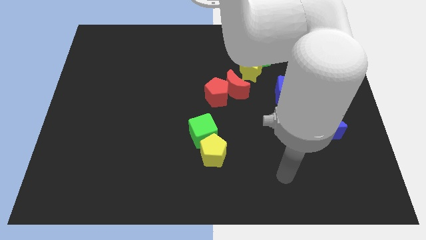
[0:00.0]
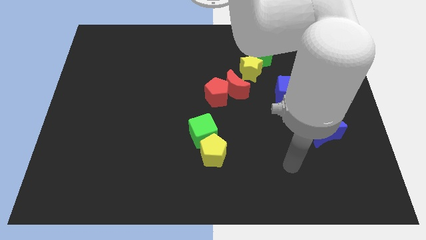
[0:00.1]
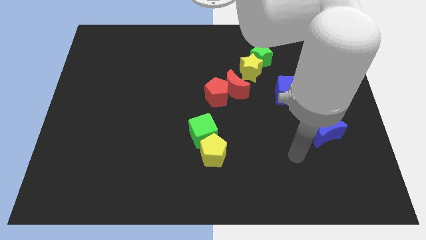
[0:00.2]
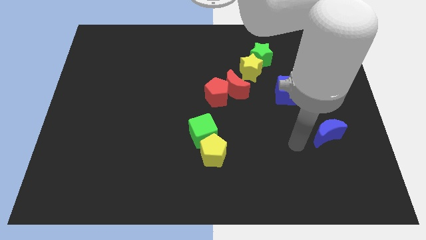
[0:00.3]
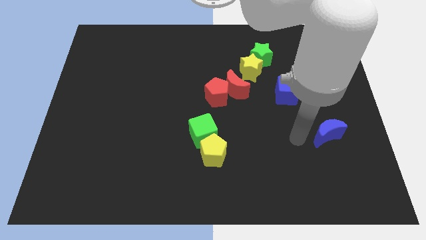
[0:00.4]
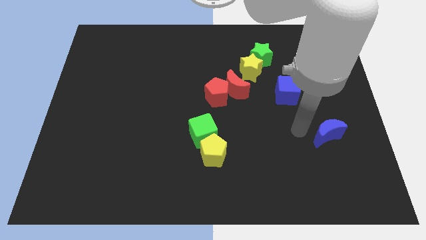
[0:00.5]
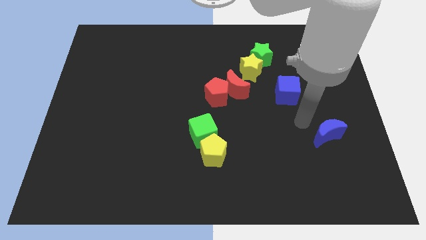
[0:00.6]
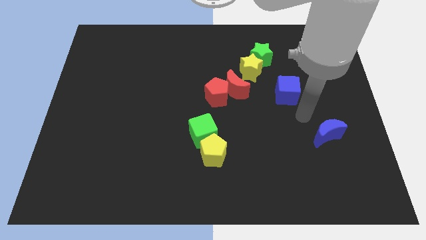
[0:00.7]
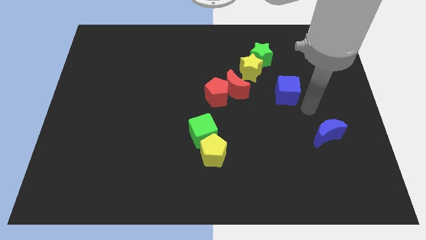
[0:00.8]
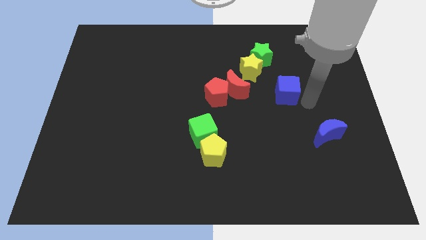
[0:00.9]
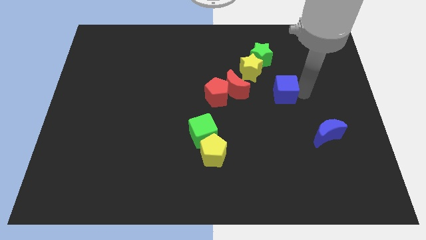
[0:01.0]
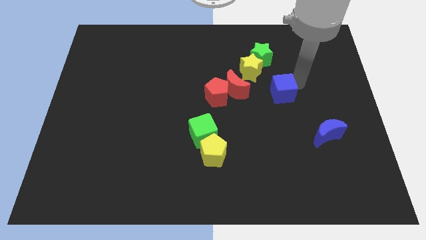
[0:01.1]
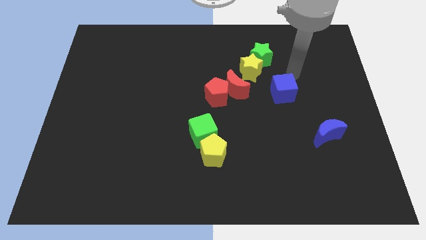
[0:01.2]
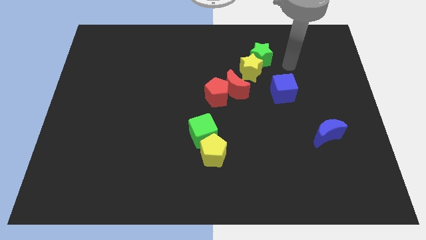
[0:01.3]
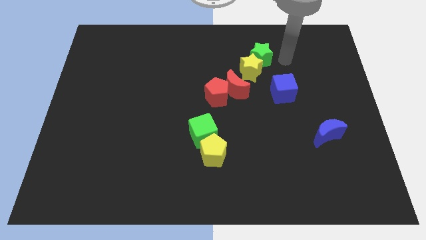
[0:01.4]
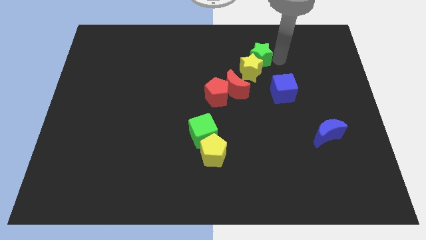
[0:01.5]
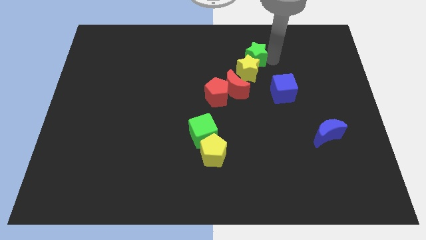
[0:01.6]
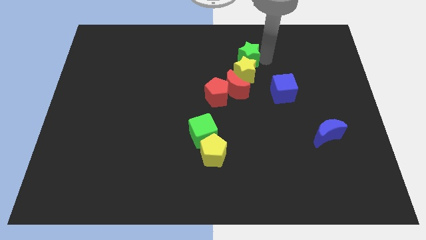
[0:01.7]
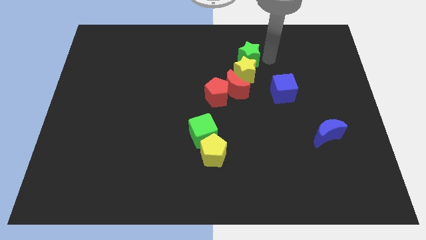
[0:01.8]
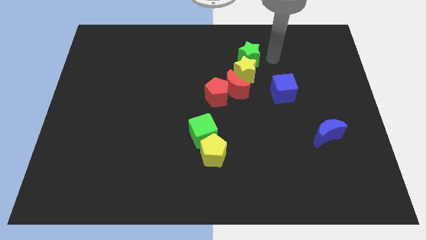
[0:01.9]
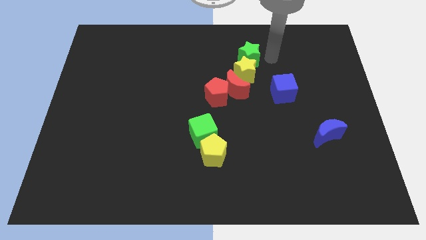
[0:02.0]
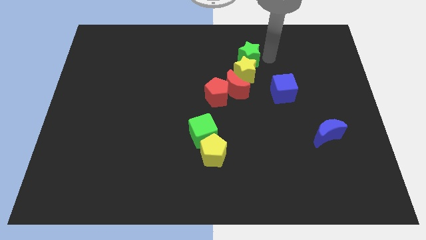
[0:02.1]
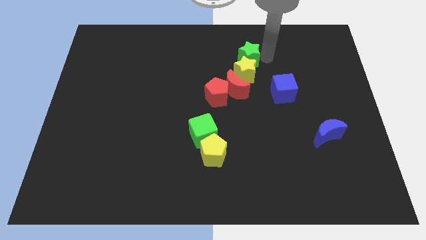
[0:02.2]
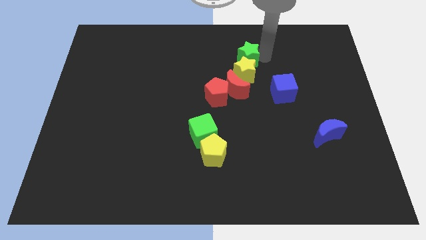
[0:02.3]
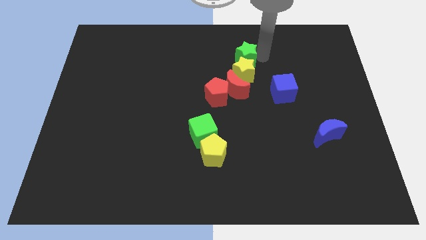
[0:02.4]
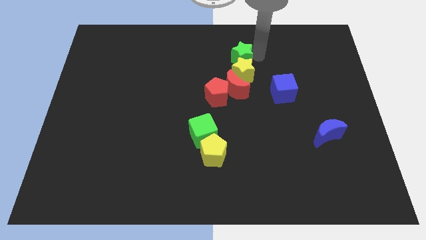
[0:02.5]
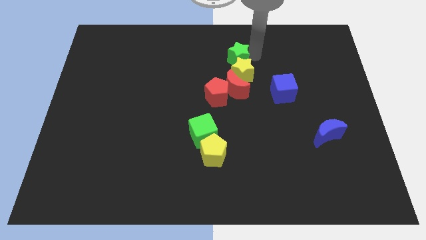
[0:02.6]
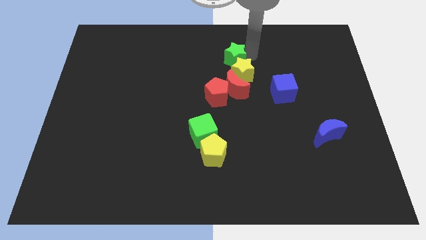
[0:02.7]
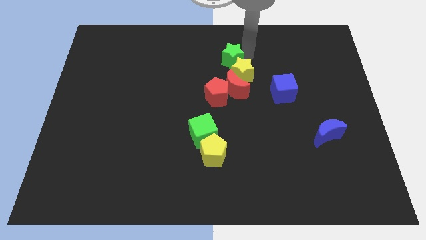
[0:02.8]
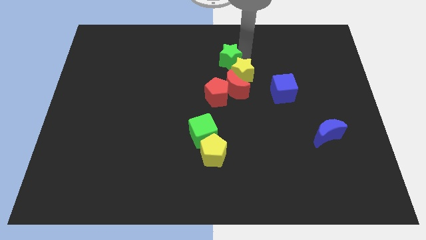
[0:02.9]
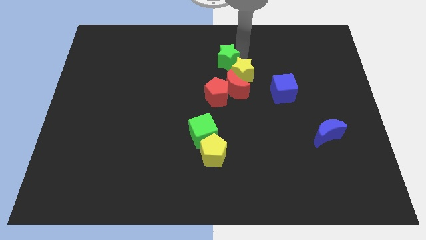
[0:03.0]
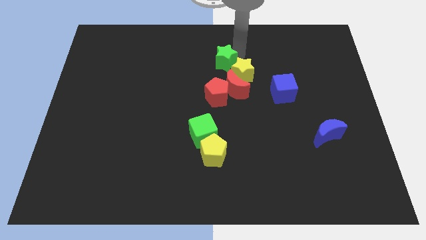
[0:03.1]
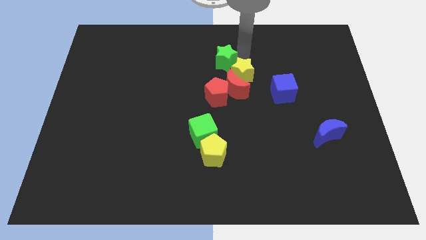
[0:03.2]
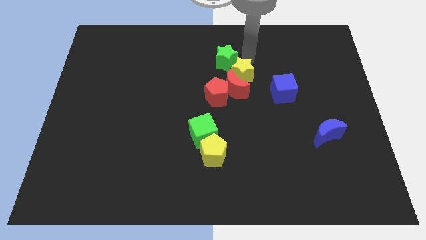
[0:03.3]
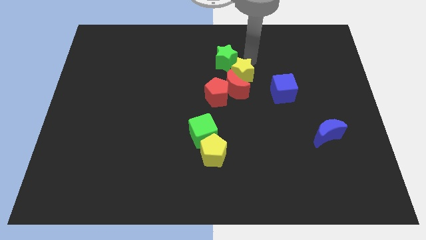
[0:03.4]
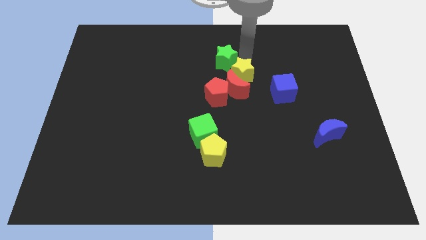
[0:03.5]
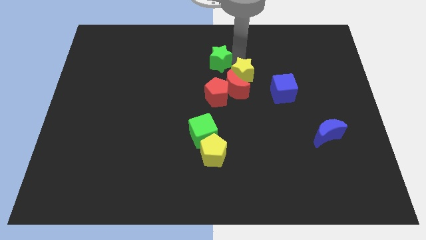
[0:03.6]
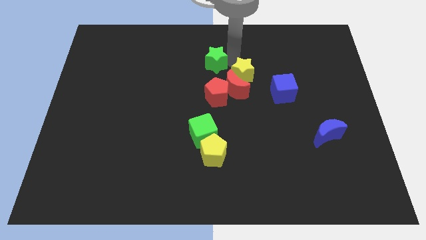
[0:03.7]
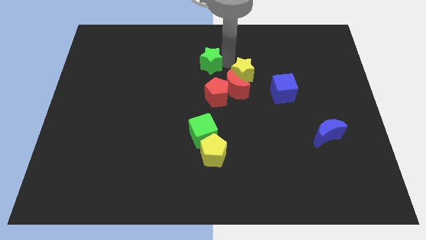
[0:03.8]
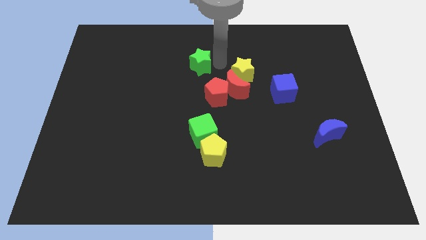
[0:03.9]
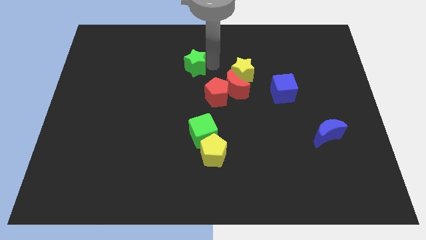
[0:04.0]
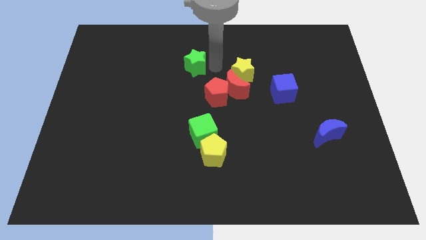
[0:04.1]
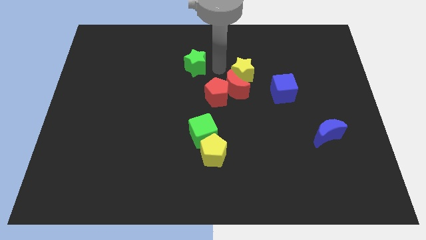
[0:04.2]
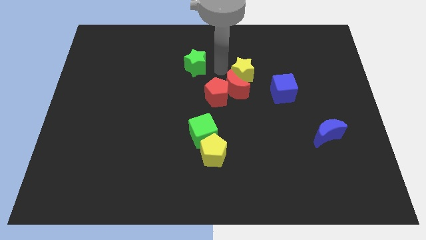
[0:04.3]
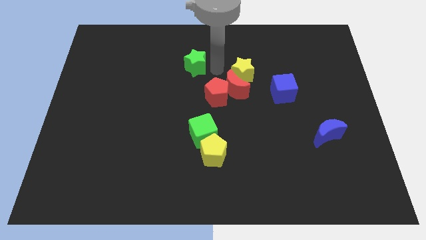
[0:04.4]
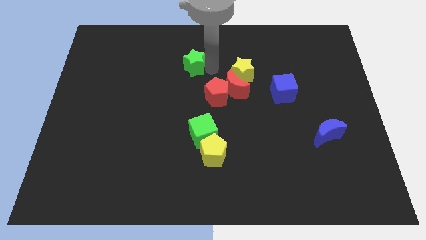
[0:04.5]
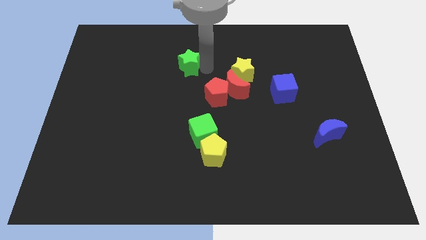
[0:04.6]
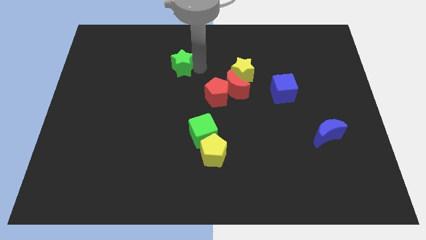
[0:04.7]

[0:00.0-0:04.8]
push the green star left

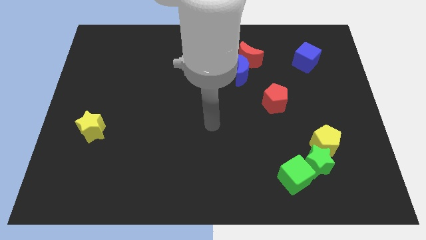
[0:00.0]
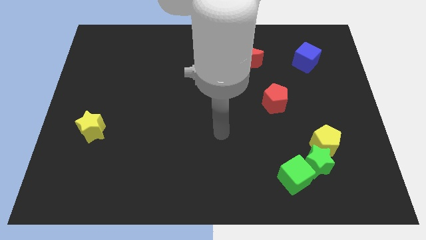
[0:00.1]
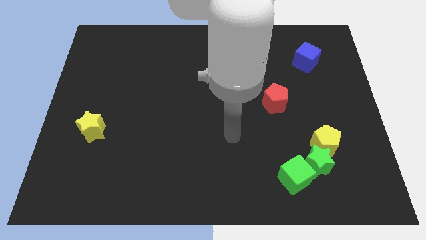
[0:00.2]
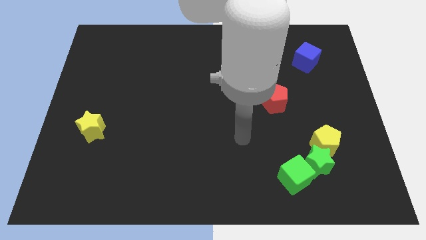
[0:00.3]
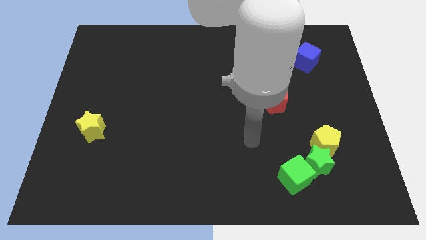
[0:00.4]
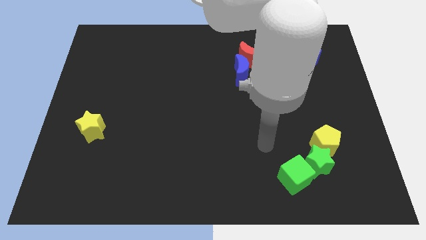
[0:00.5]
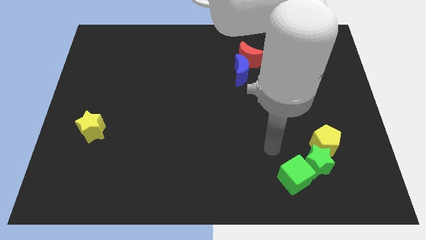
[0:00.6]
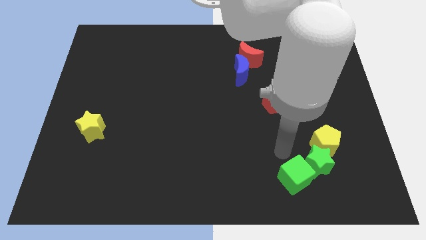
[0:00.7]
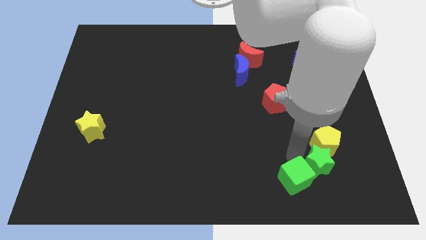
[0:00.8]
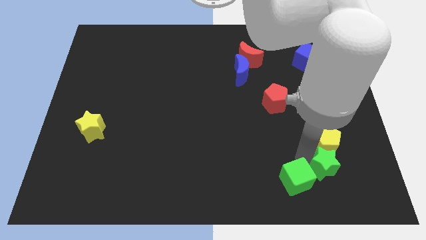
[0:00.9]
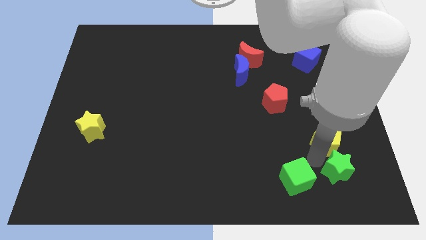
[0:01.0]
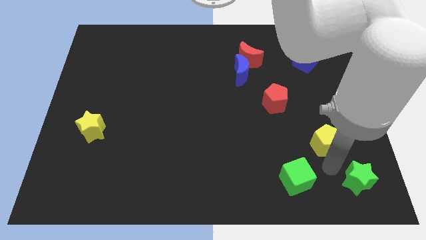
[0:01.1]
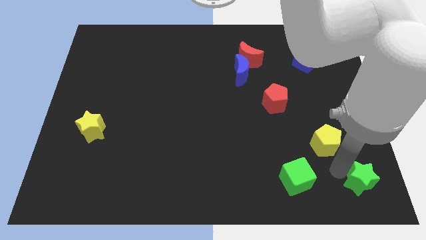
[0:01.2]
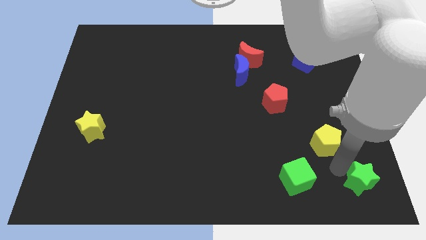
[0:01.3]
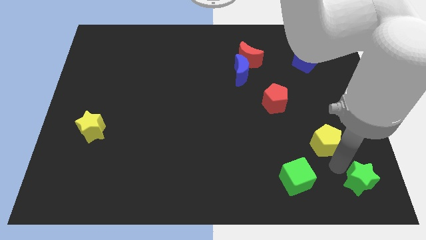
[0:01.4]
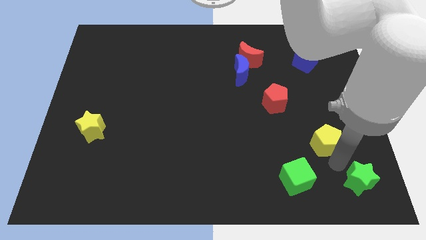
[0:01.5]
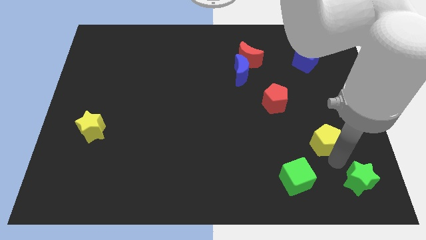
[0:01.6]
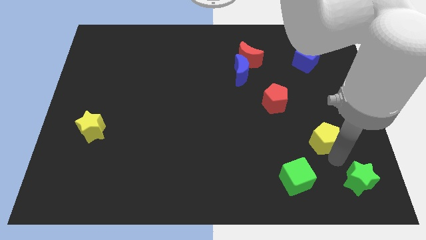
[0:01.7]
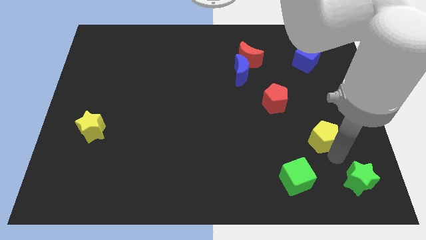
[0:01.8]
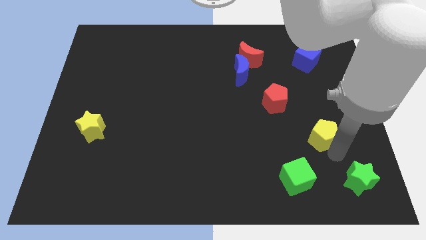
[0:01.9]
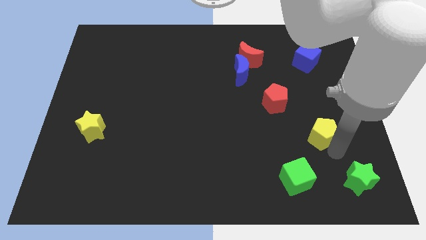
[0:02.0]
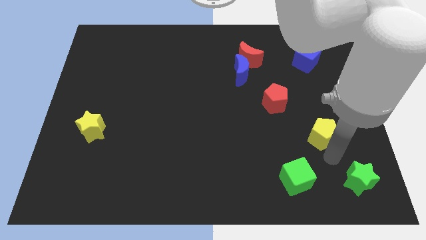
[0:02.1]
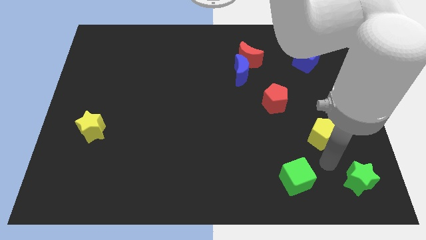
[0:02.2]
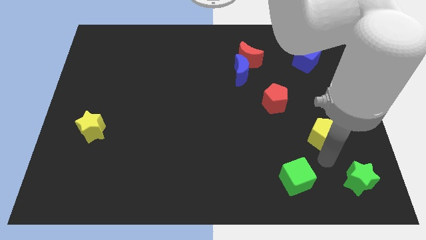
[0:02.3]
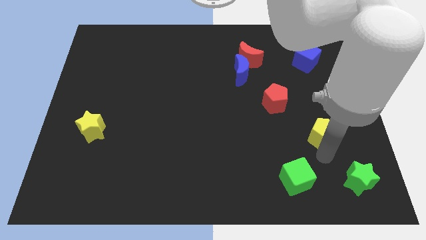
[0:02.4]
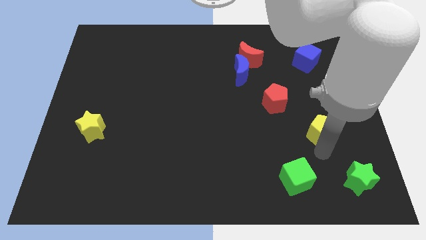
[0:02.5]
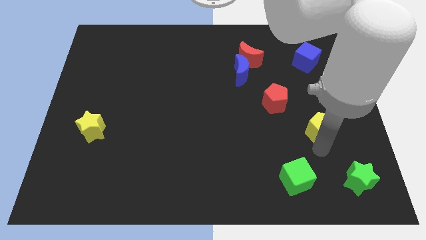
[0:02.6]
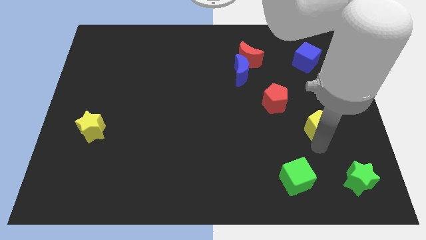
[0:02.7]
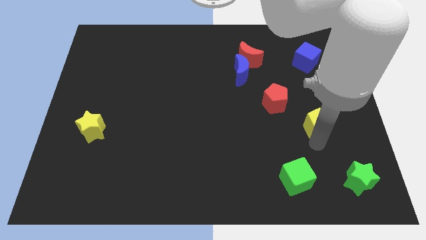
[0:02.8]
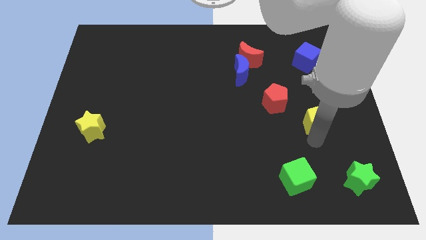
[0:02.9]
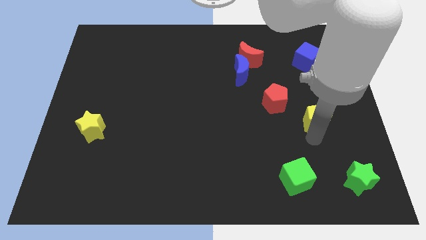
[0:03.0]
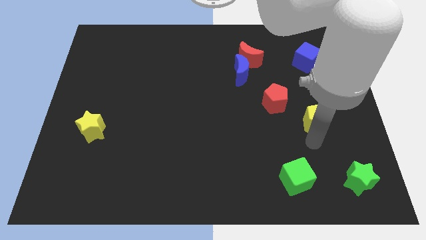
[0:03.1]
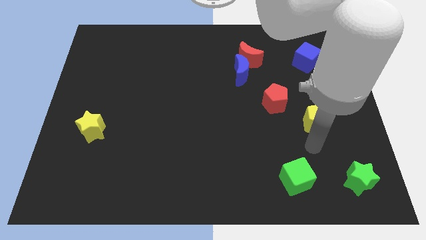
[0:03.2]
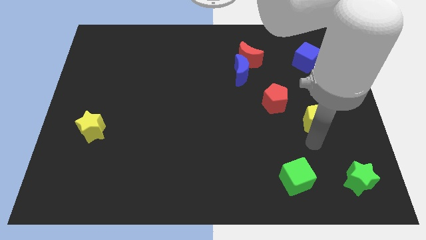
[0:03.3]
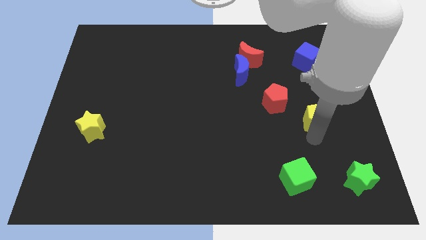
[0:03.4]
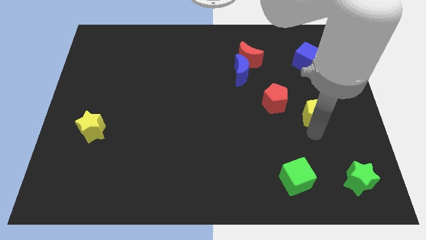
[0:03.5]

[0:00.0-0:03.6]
slightly move the yellow pentagon upwards
